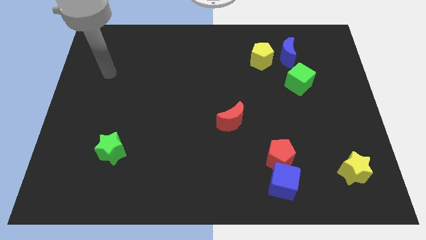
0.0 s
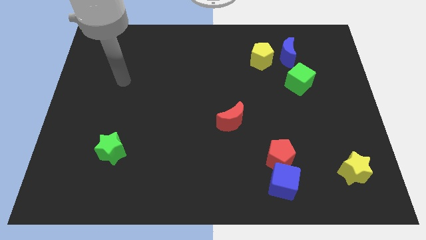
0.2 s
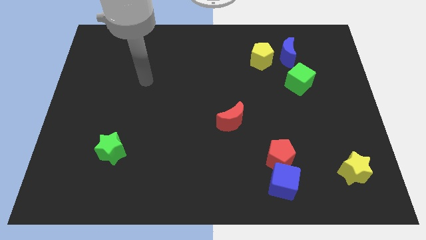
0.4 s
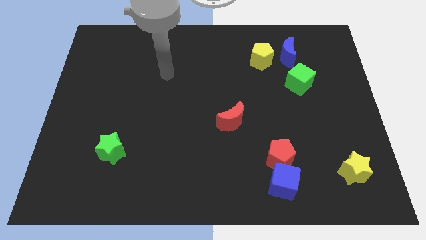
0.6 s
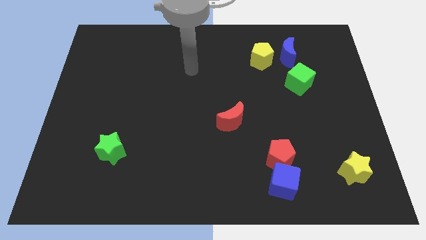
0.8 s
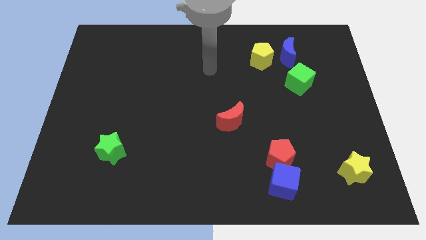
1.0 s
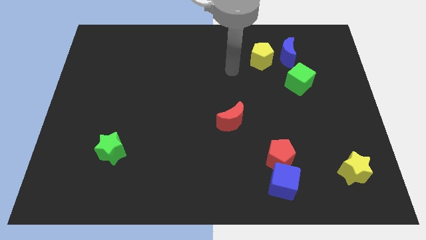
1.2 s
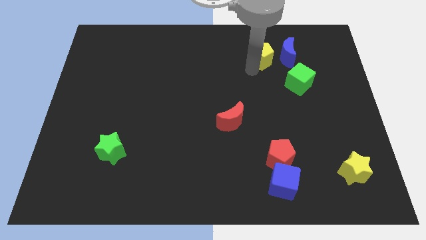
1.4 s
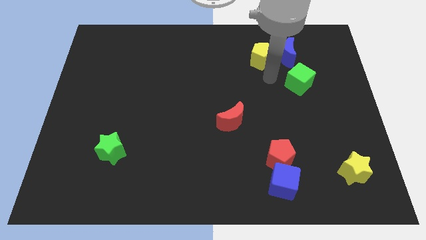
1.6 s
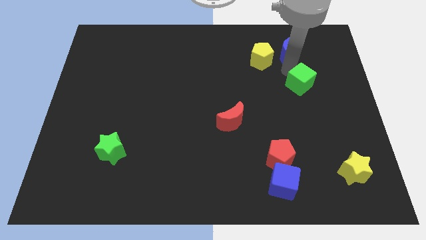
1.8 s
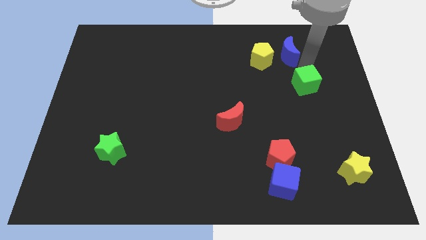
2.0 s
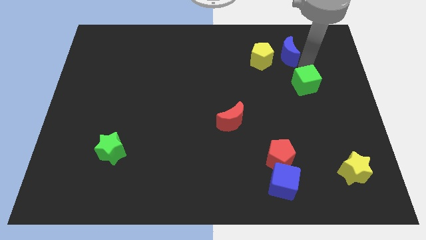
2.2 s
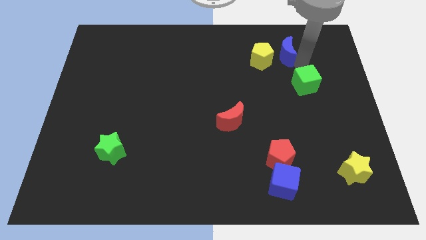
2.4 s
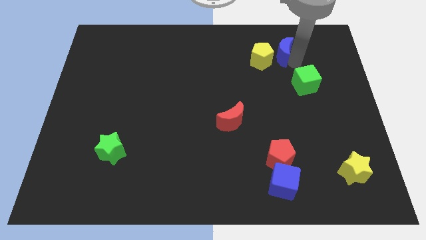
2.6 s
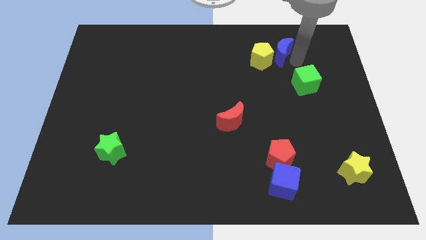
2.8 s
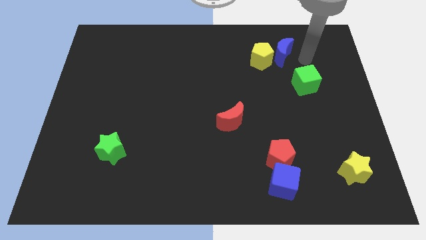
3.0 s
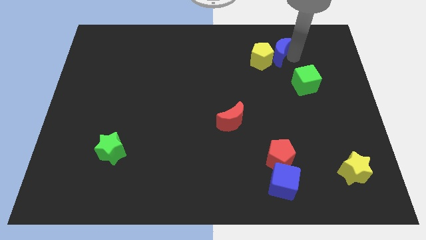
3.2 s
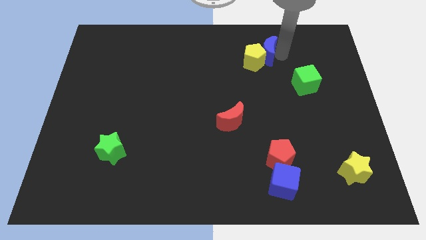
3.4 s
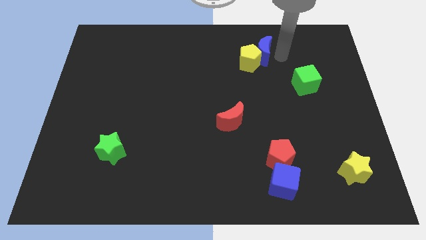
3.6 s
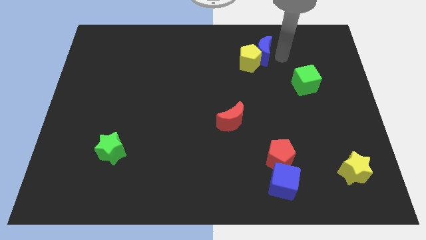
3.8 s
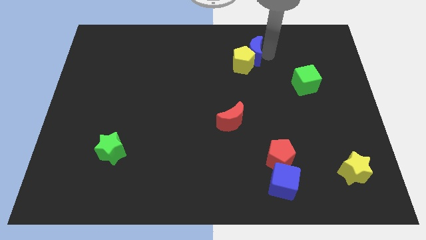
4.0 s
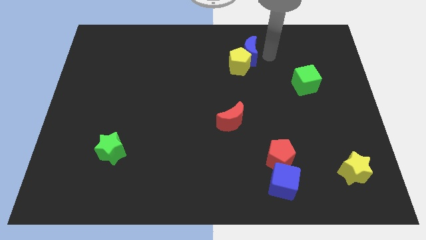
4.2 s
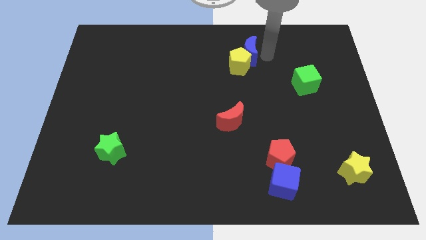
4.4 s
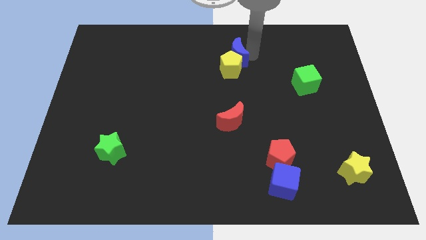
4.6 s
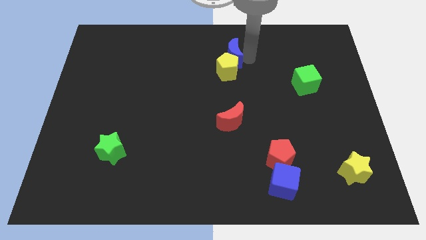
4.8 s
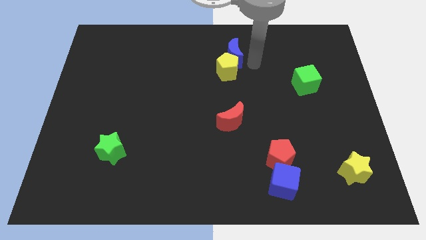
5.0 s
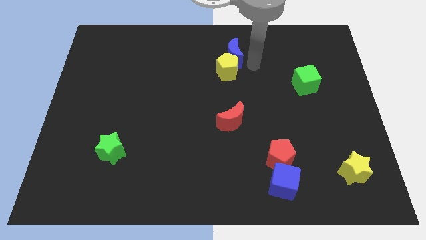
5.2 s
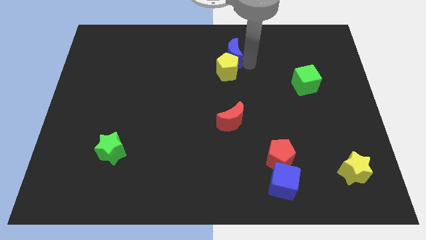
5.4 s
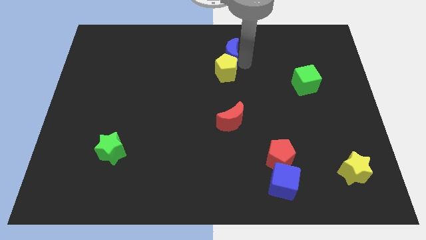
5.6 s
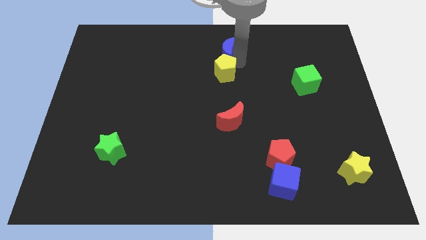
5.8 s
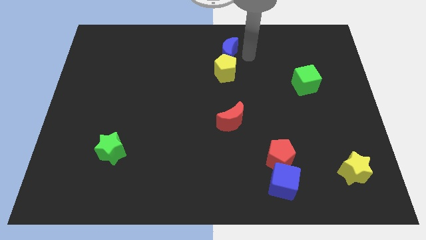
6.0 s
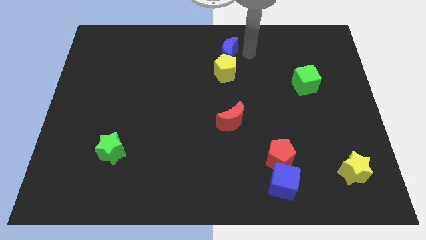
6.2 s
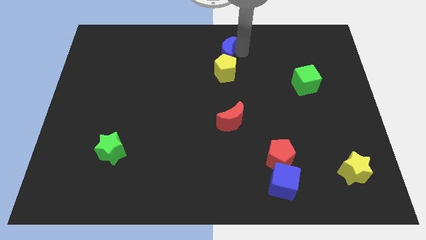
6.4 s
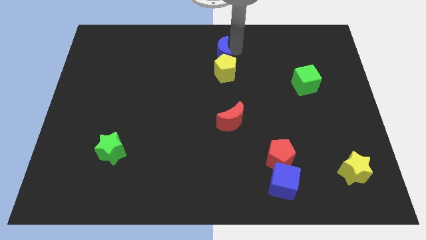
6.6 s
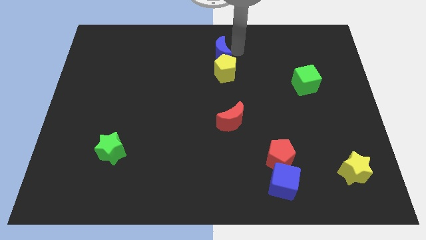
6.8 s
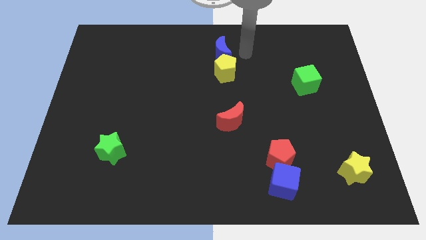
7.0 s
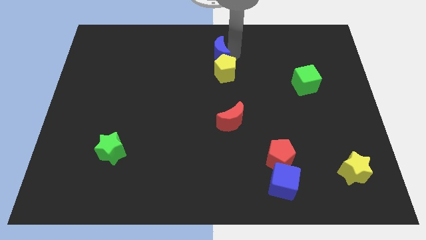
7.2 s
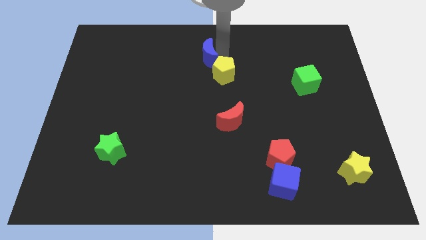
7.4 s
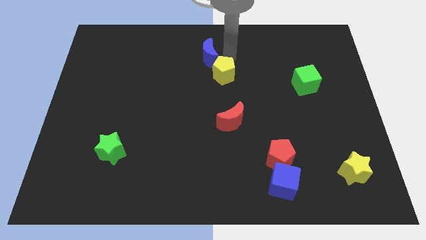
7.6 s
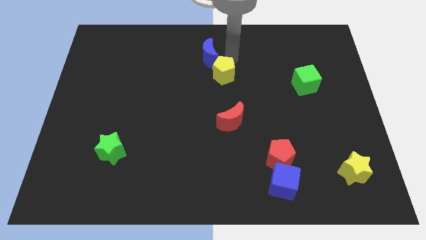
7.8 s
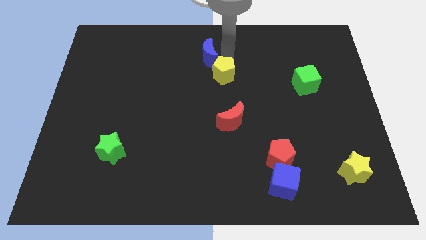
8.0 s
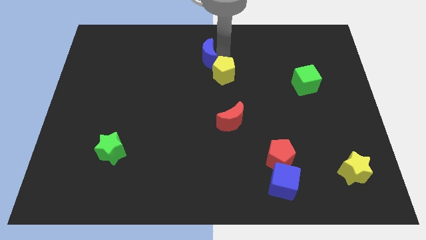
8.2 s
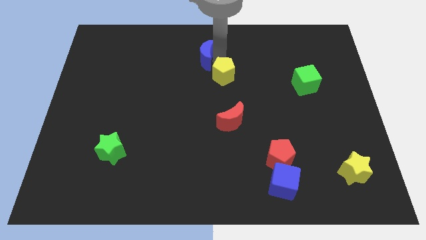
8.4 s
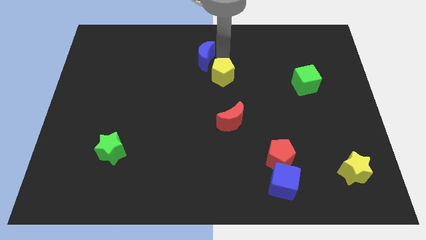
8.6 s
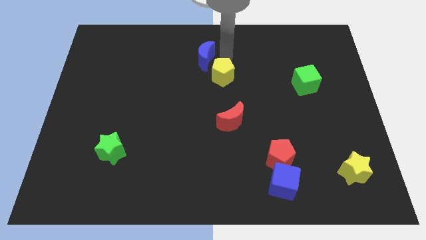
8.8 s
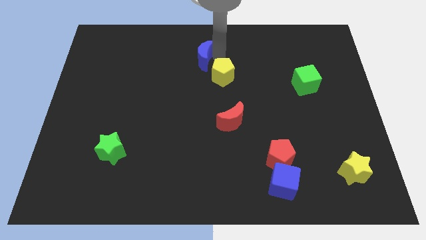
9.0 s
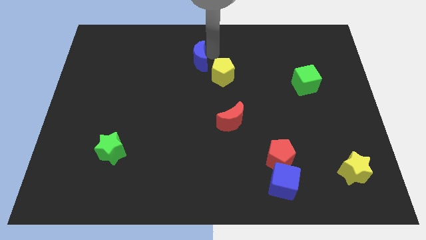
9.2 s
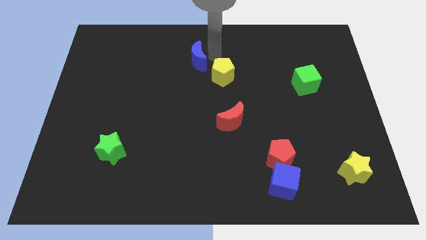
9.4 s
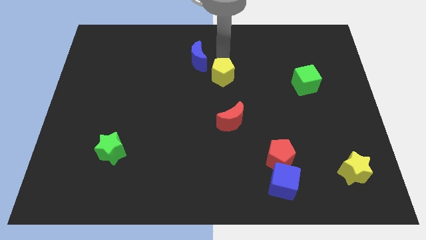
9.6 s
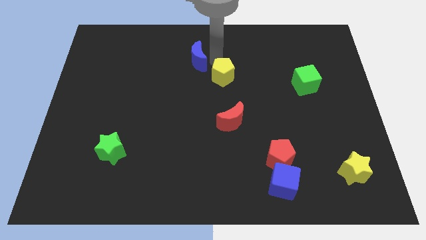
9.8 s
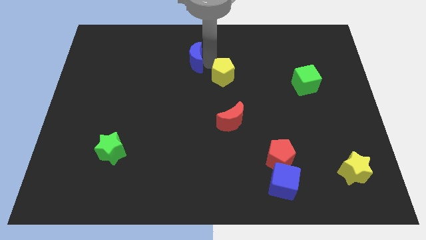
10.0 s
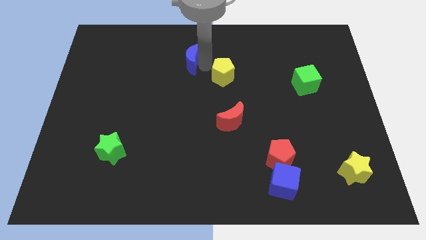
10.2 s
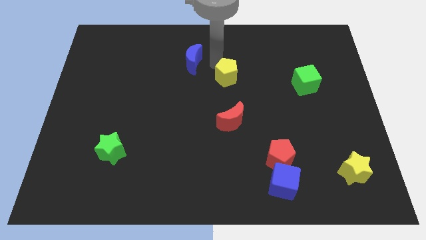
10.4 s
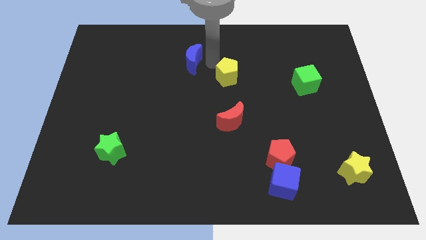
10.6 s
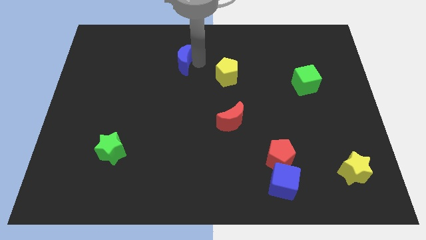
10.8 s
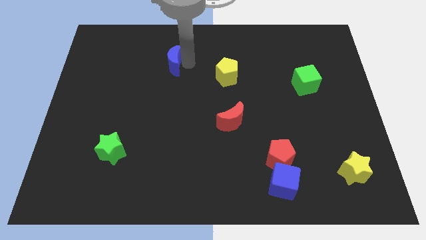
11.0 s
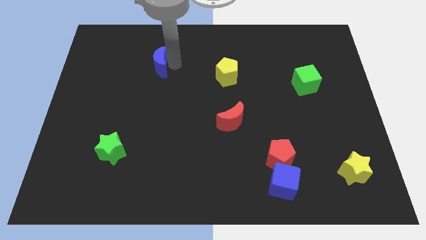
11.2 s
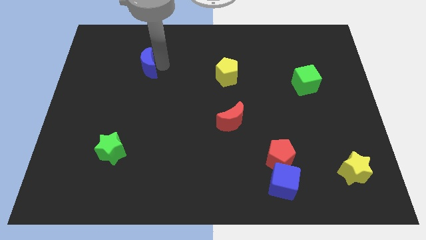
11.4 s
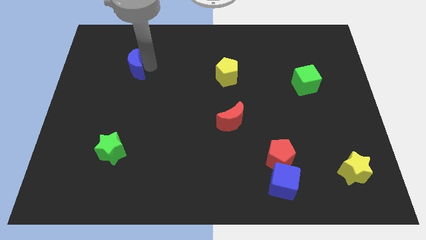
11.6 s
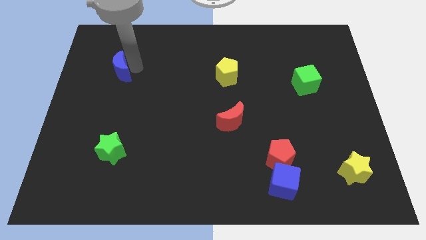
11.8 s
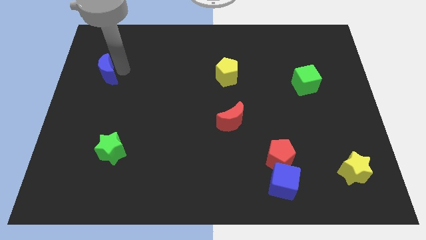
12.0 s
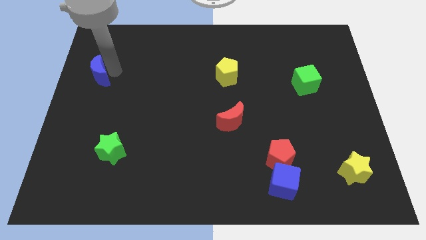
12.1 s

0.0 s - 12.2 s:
move the blue moon to the left side
